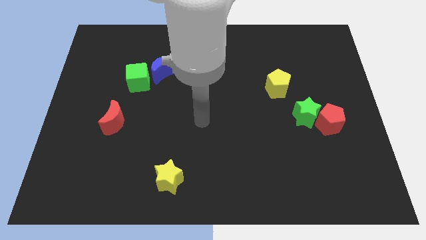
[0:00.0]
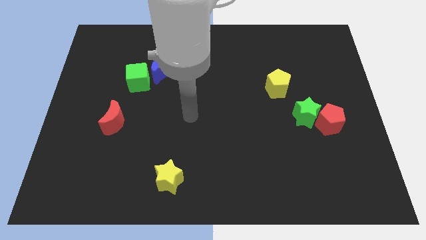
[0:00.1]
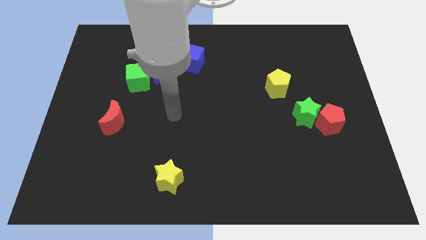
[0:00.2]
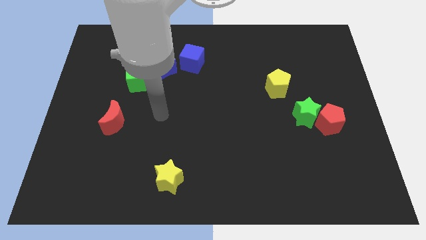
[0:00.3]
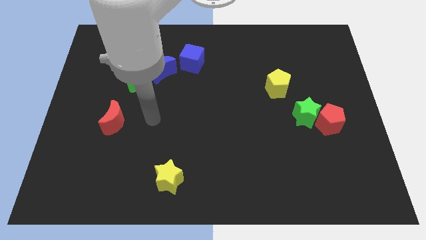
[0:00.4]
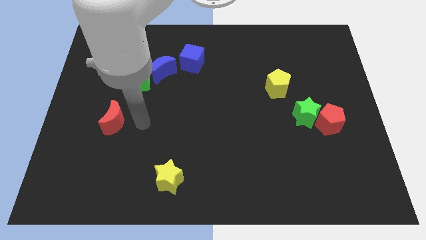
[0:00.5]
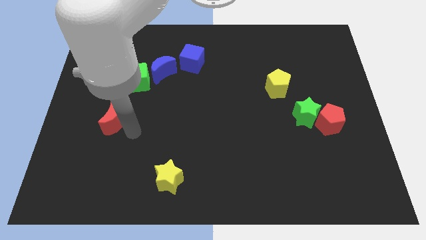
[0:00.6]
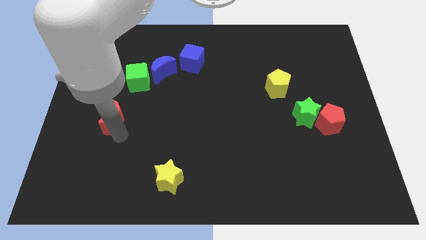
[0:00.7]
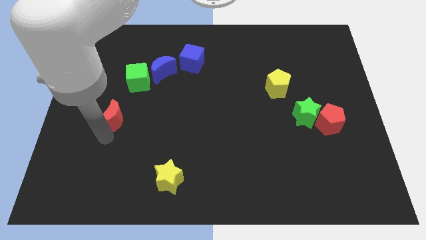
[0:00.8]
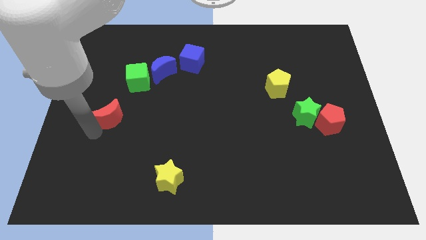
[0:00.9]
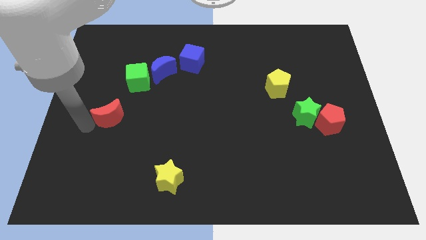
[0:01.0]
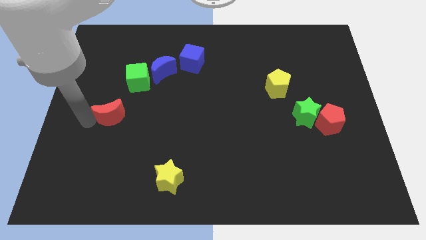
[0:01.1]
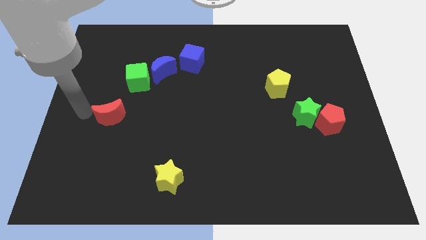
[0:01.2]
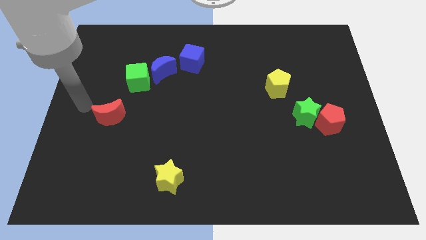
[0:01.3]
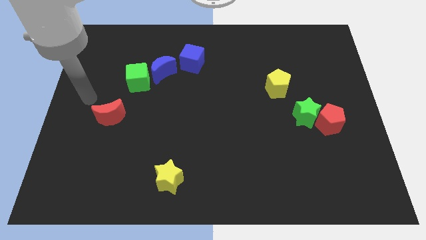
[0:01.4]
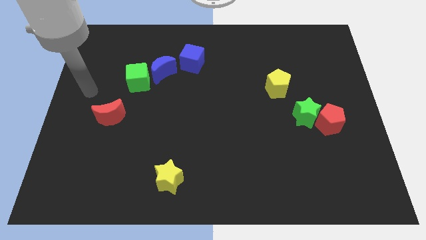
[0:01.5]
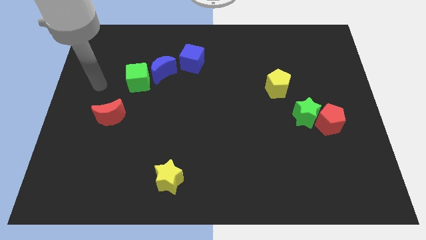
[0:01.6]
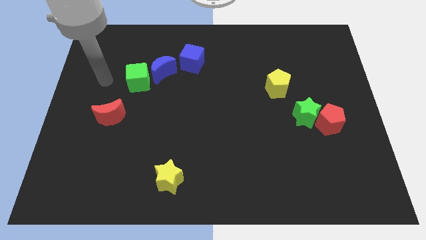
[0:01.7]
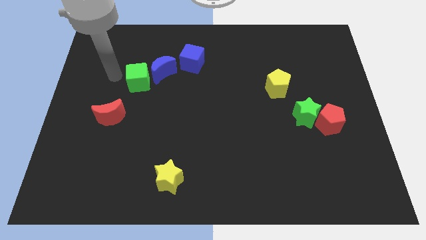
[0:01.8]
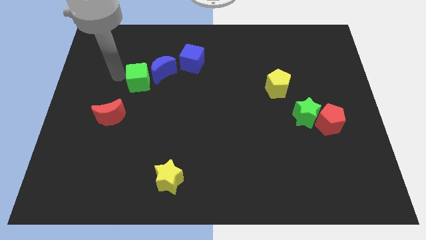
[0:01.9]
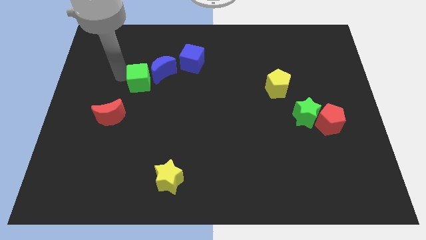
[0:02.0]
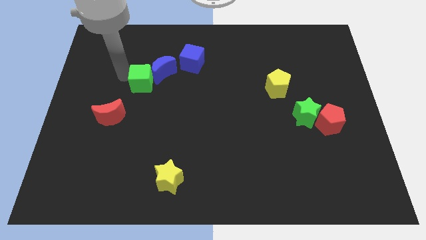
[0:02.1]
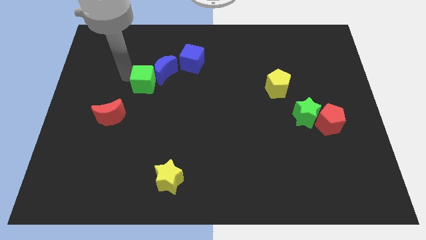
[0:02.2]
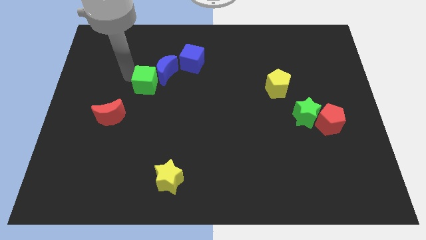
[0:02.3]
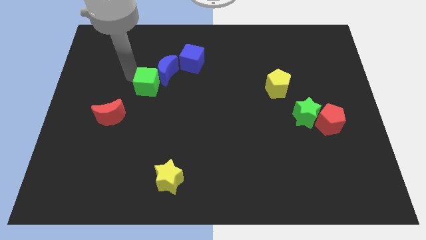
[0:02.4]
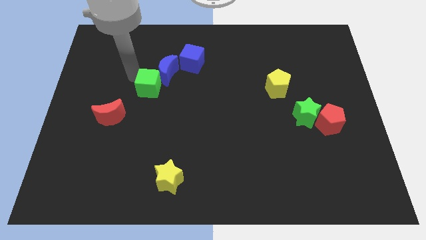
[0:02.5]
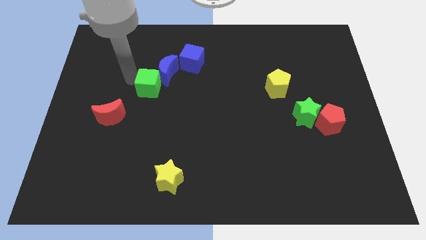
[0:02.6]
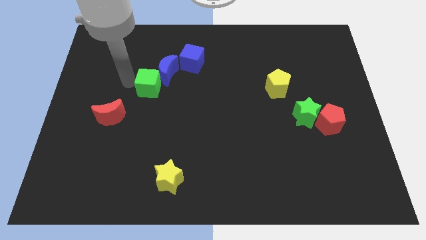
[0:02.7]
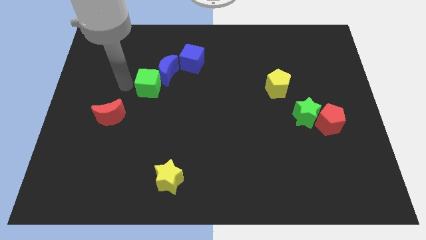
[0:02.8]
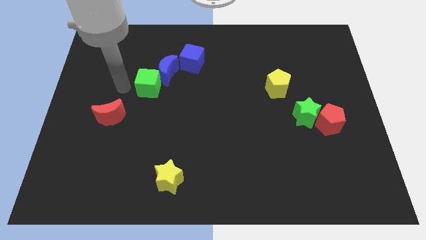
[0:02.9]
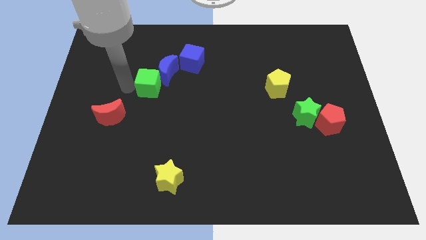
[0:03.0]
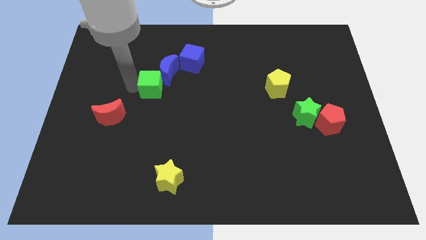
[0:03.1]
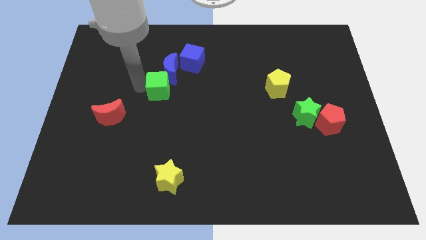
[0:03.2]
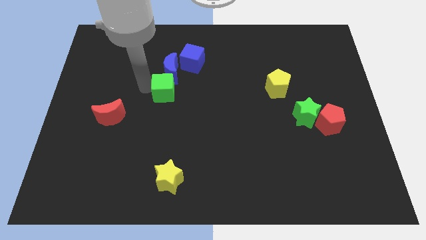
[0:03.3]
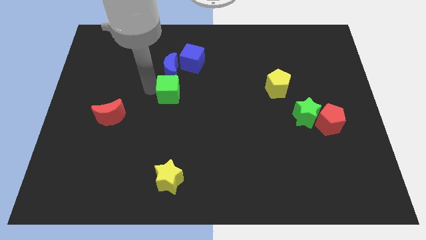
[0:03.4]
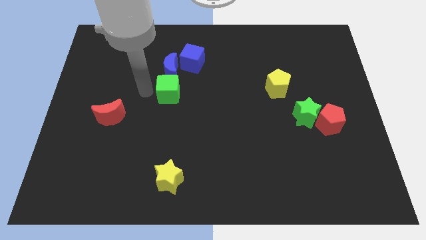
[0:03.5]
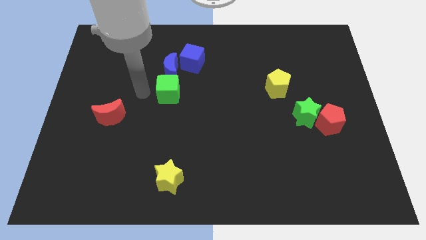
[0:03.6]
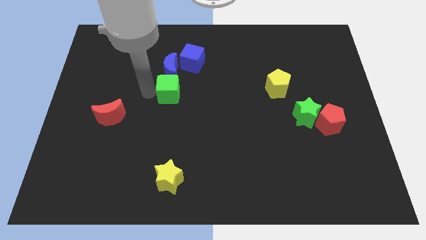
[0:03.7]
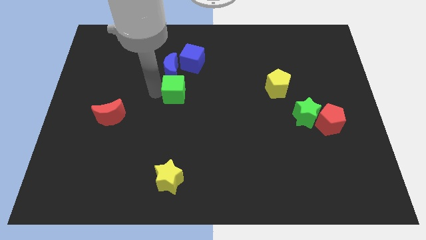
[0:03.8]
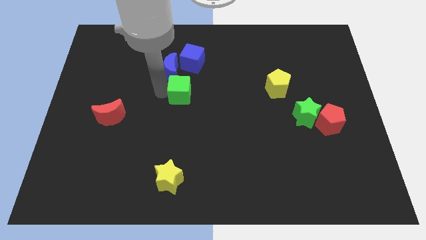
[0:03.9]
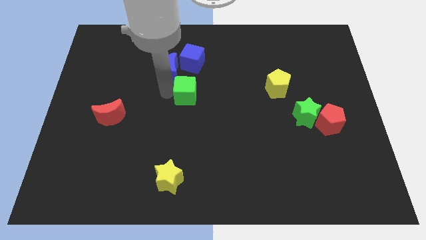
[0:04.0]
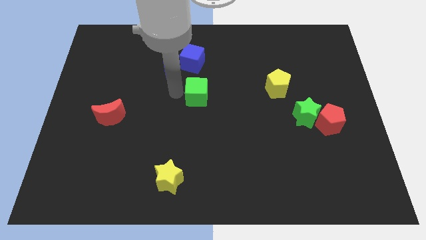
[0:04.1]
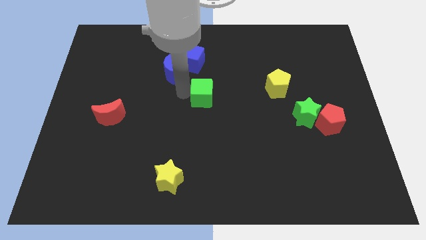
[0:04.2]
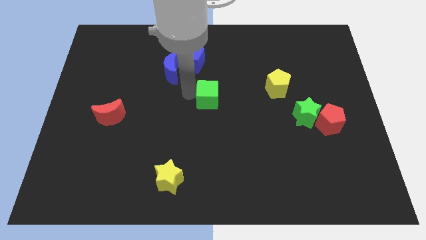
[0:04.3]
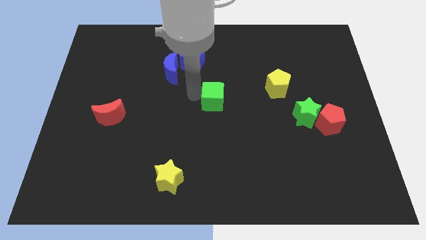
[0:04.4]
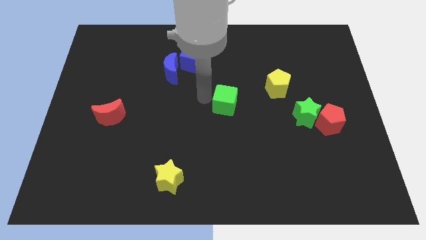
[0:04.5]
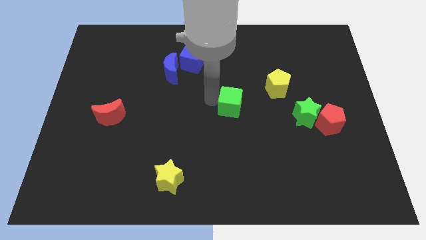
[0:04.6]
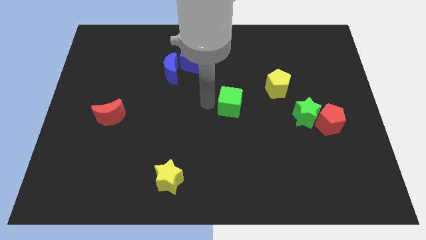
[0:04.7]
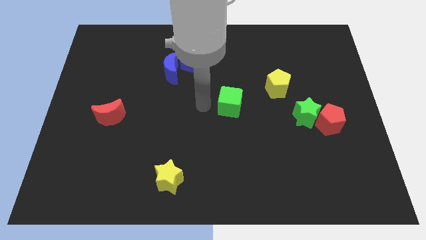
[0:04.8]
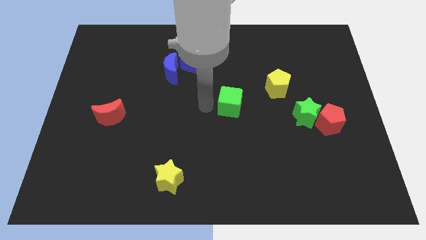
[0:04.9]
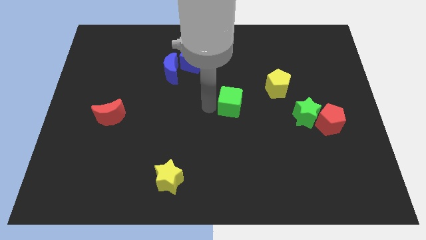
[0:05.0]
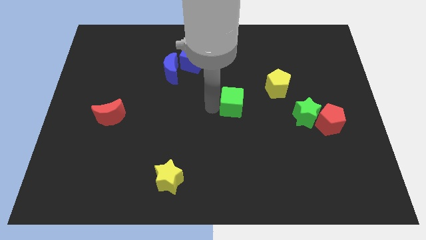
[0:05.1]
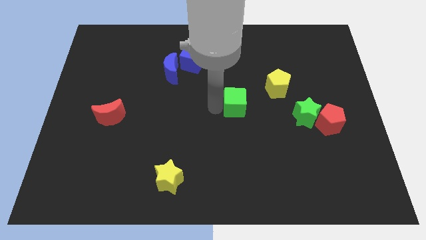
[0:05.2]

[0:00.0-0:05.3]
push the green cube to the bottom left side of the yellow pentagon
